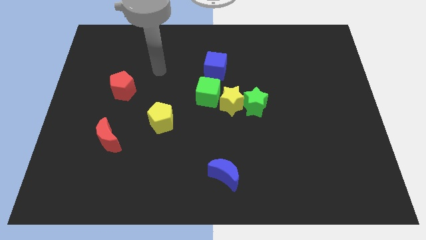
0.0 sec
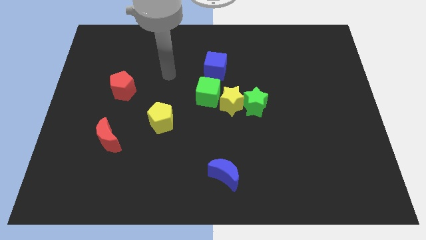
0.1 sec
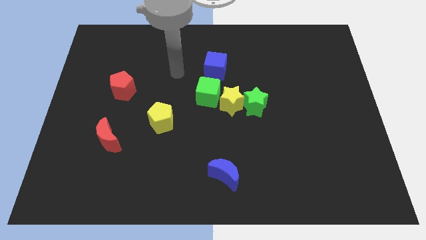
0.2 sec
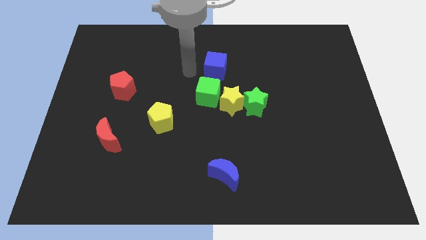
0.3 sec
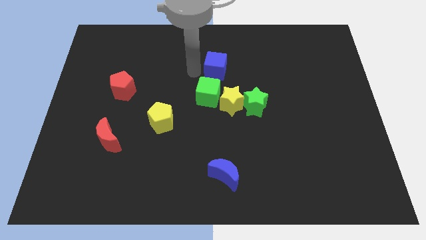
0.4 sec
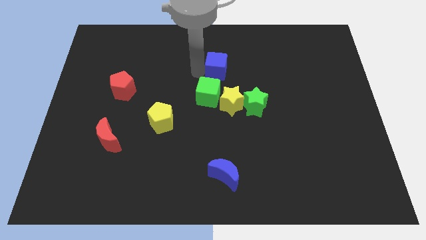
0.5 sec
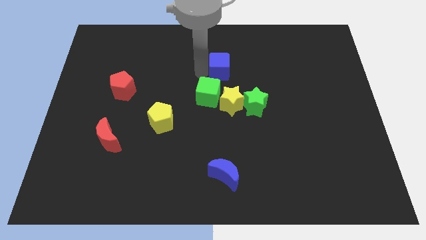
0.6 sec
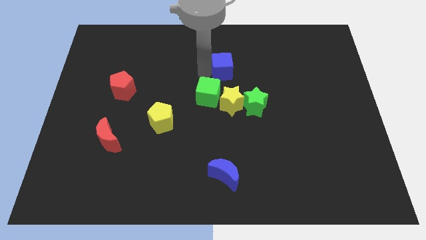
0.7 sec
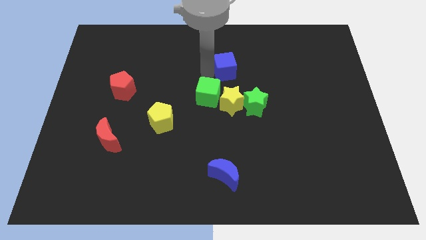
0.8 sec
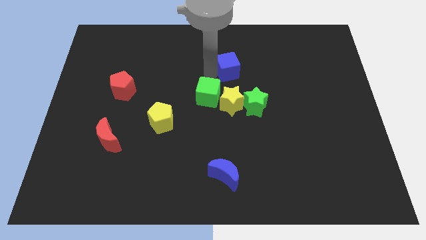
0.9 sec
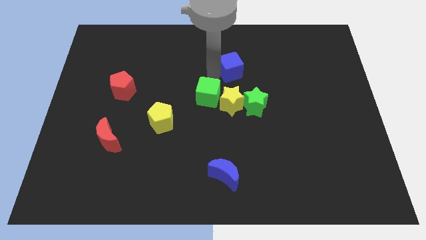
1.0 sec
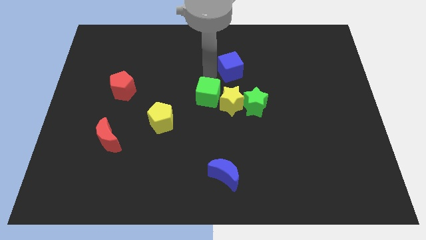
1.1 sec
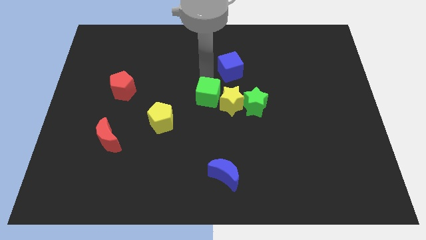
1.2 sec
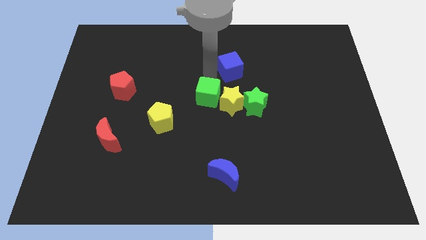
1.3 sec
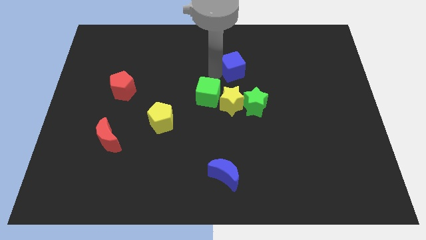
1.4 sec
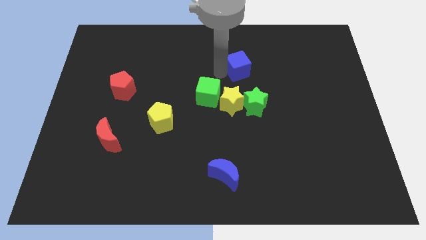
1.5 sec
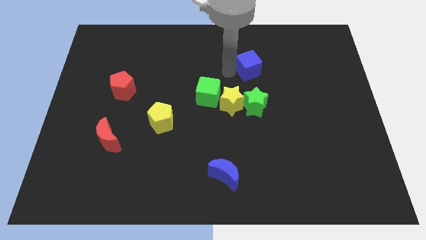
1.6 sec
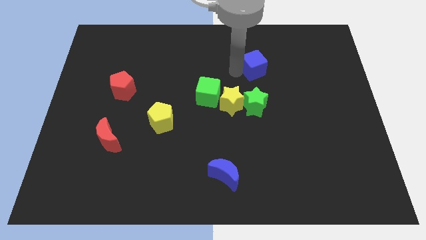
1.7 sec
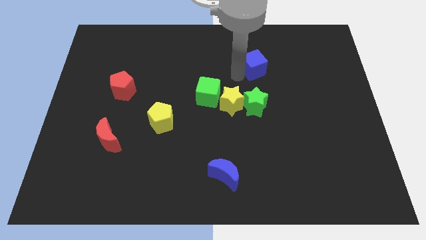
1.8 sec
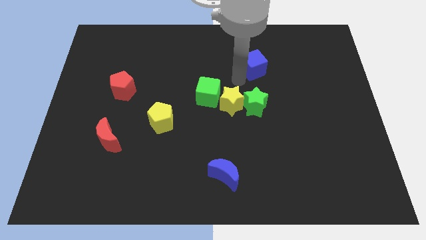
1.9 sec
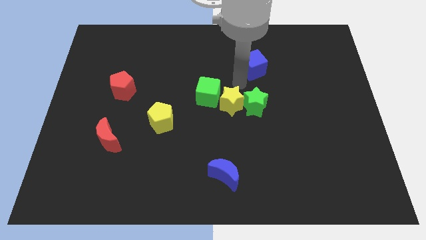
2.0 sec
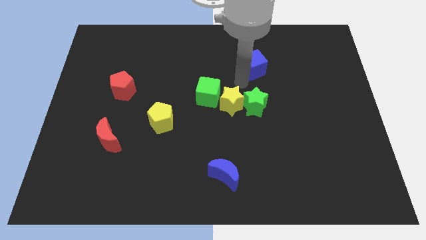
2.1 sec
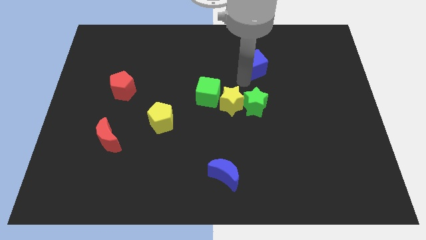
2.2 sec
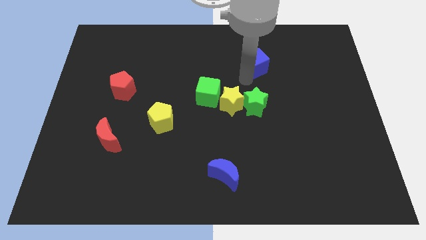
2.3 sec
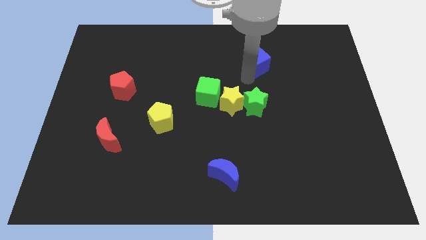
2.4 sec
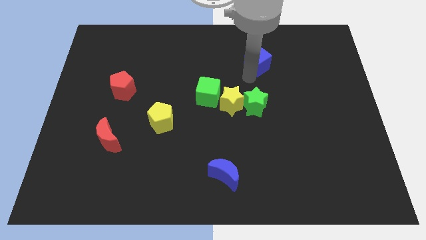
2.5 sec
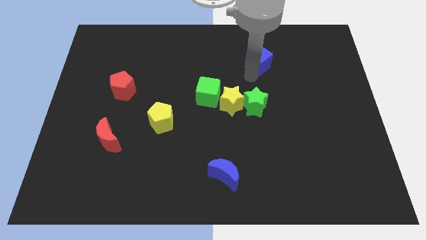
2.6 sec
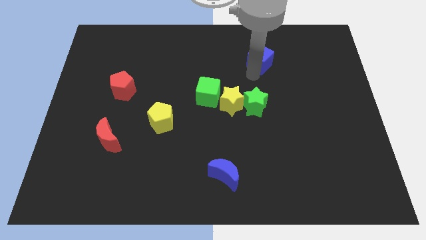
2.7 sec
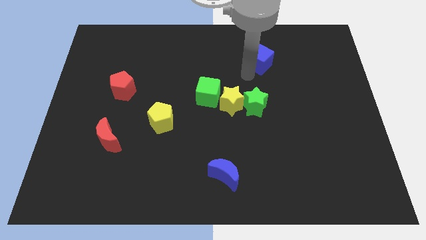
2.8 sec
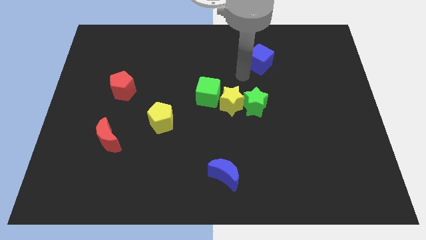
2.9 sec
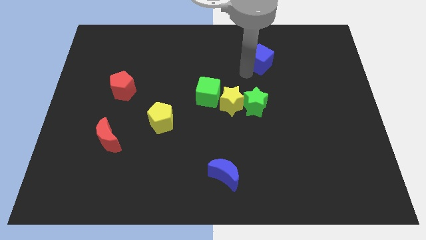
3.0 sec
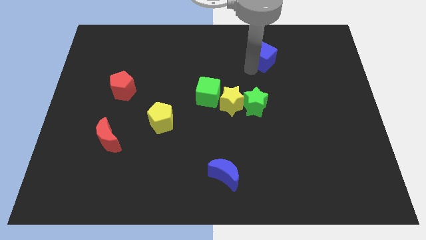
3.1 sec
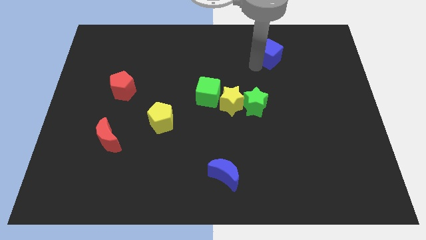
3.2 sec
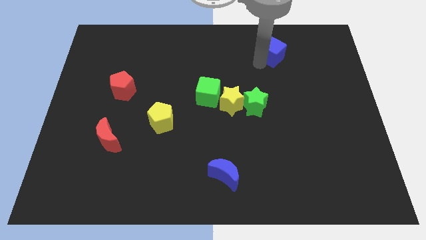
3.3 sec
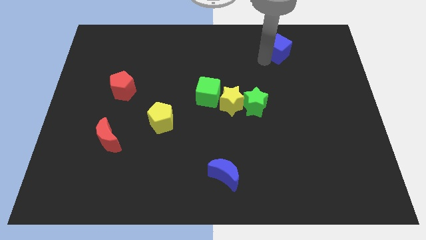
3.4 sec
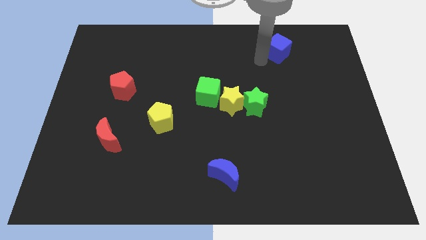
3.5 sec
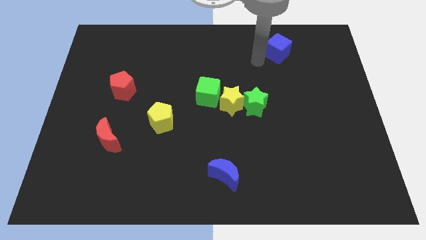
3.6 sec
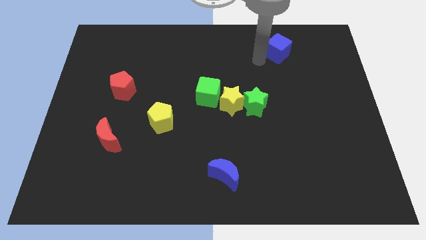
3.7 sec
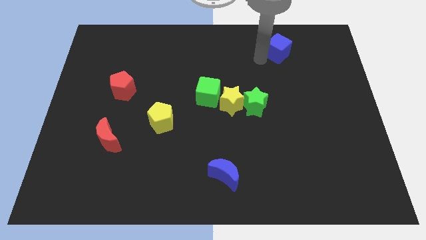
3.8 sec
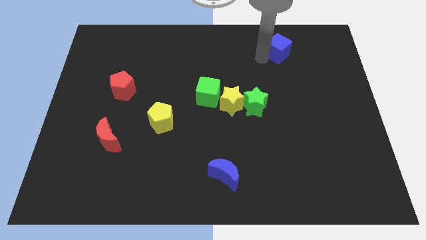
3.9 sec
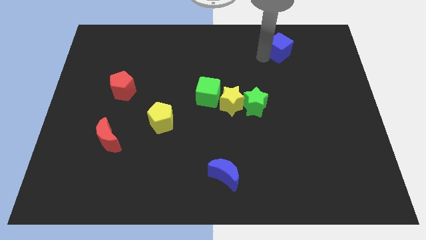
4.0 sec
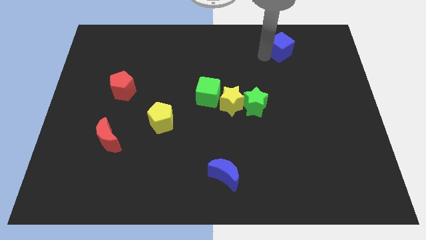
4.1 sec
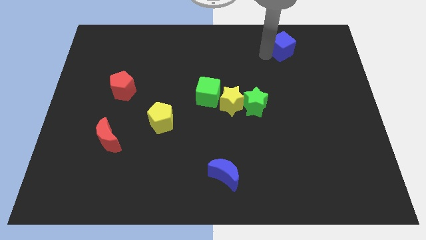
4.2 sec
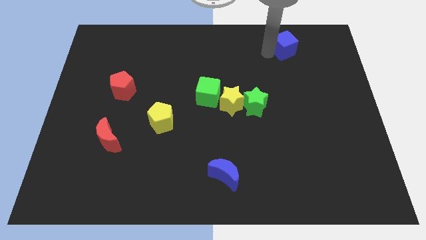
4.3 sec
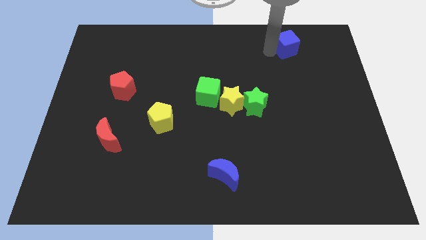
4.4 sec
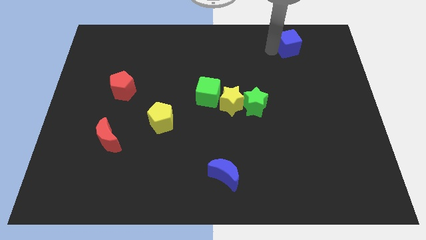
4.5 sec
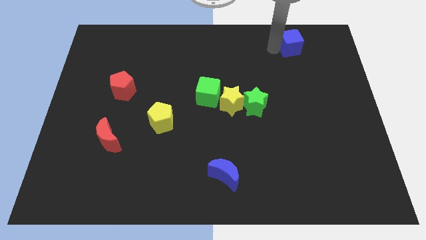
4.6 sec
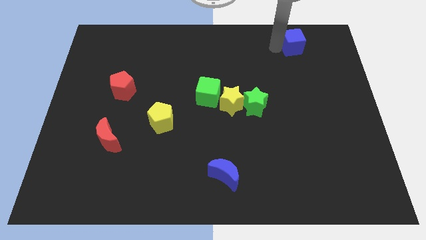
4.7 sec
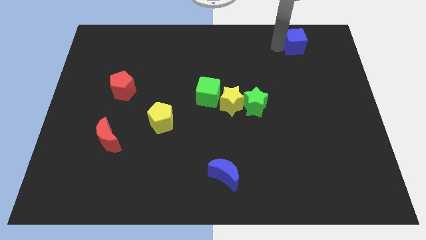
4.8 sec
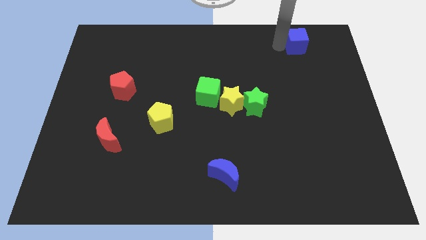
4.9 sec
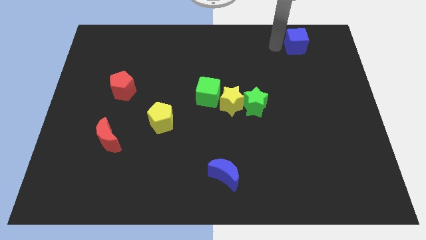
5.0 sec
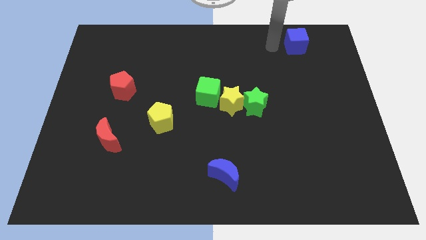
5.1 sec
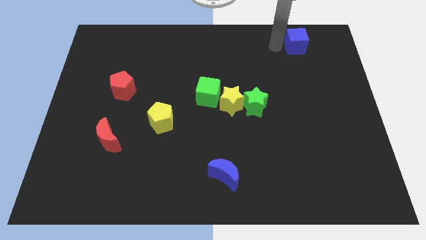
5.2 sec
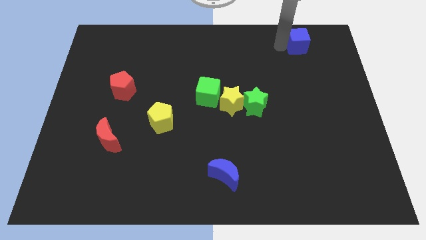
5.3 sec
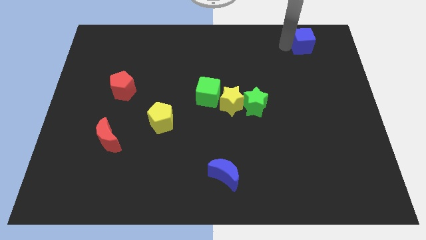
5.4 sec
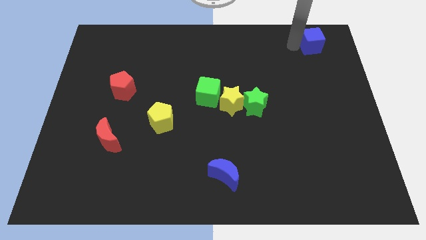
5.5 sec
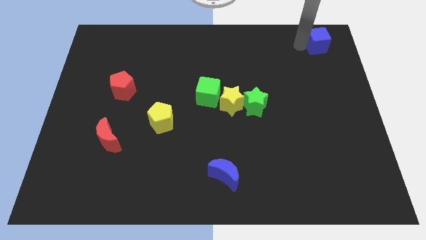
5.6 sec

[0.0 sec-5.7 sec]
push the blue cube to the upper right corner

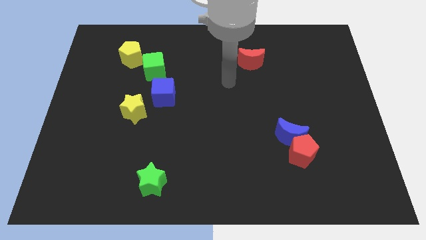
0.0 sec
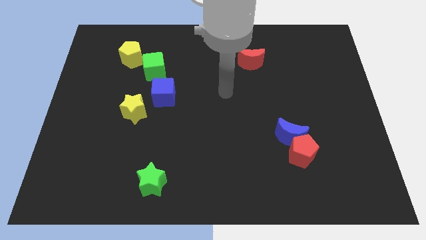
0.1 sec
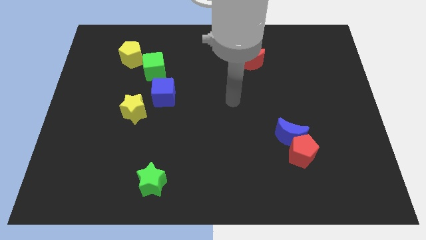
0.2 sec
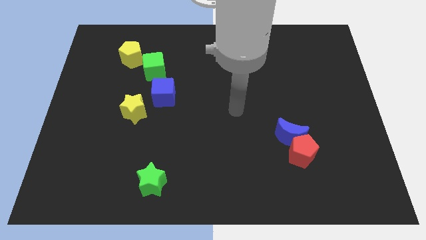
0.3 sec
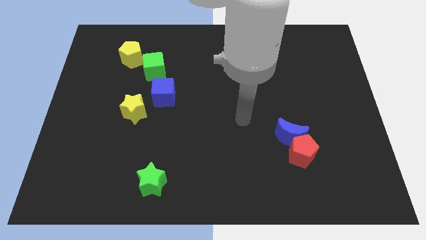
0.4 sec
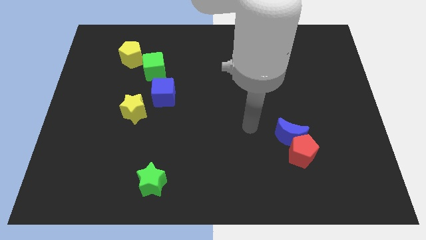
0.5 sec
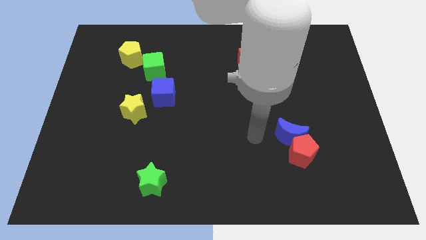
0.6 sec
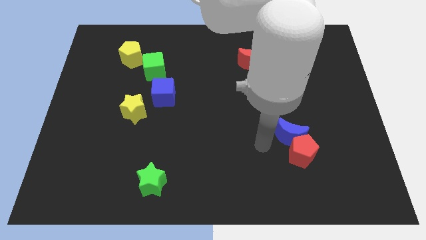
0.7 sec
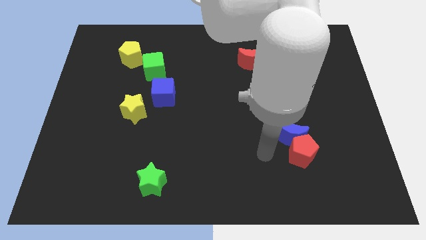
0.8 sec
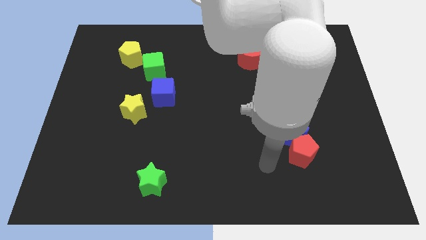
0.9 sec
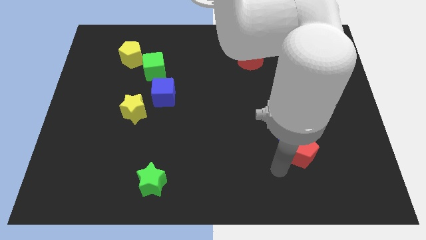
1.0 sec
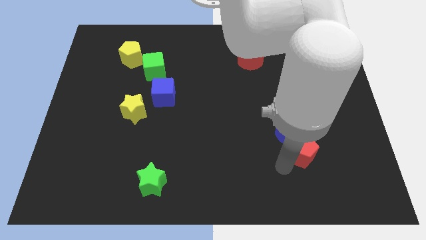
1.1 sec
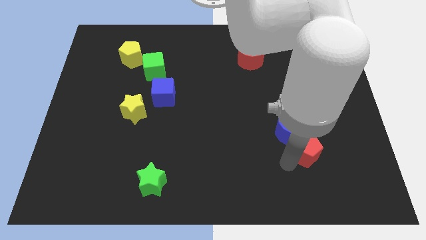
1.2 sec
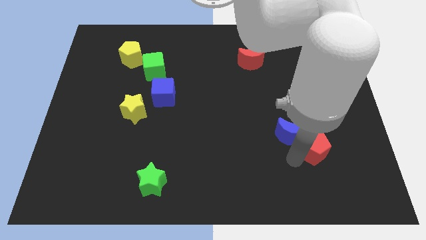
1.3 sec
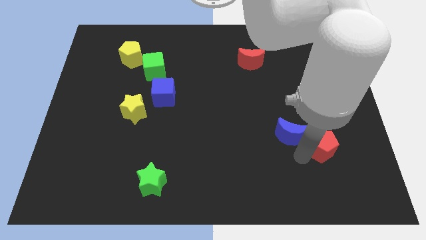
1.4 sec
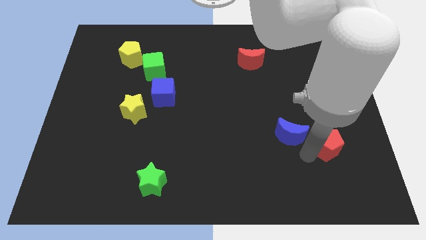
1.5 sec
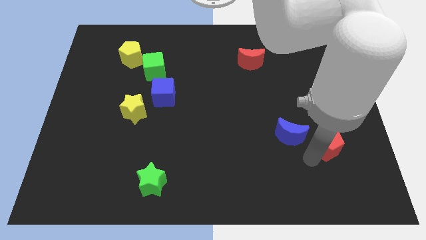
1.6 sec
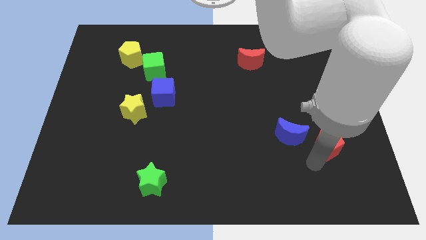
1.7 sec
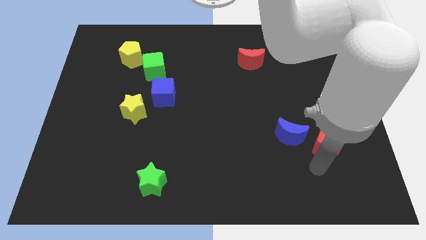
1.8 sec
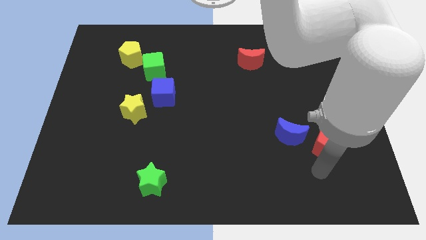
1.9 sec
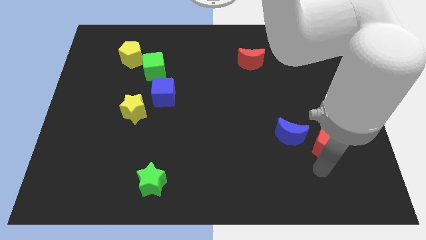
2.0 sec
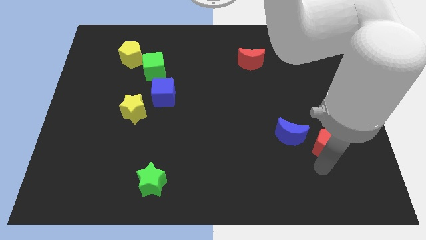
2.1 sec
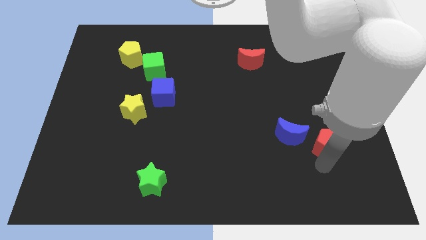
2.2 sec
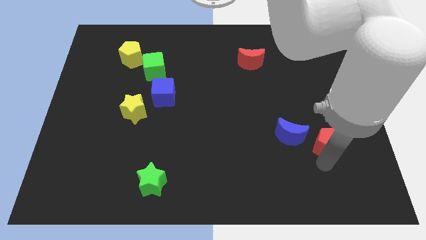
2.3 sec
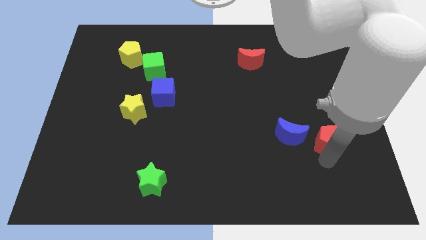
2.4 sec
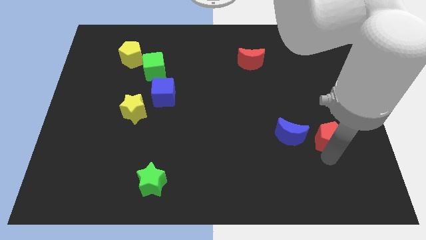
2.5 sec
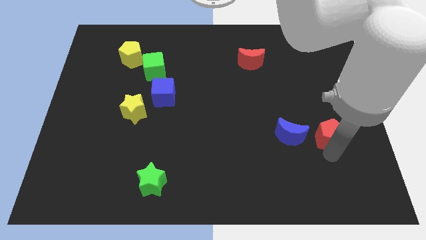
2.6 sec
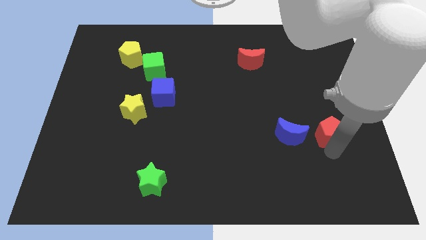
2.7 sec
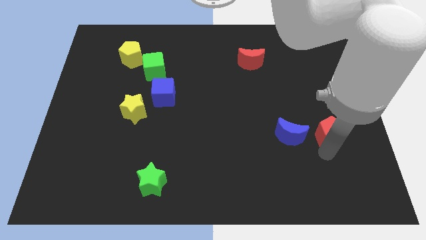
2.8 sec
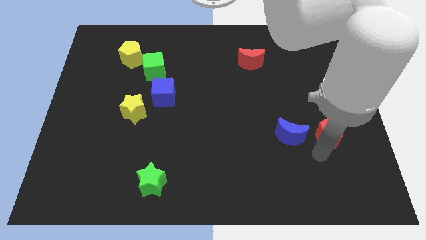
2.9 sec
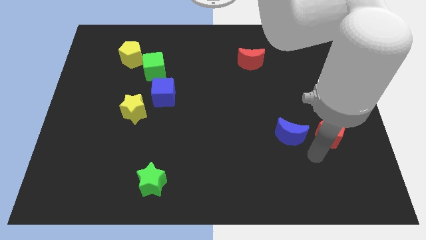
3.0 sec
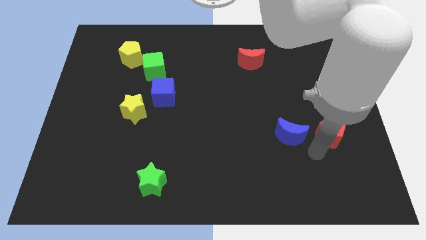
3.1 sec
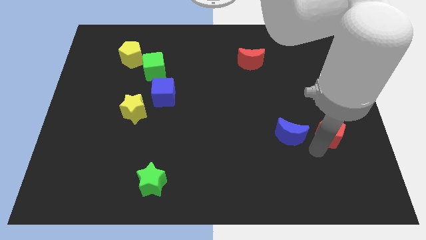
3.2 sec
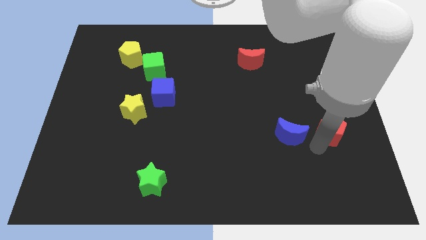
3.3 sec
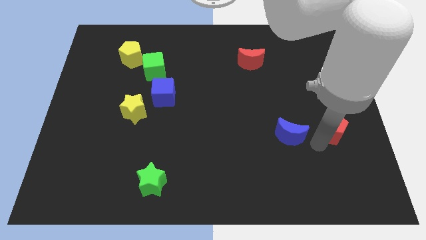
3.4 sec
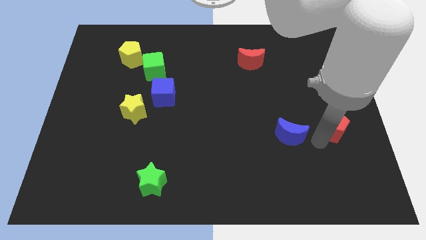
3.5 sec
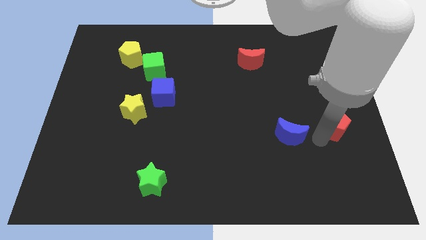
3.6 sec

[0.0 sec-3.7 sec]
push the red pentagon to the right side of the board
